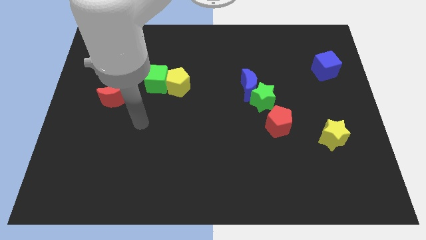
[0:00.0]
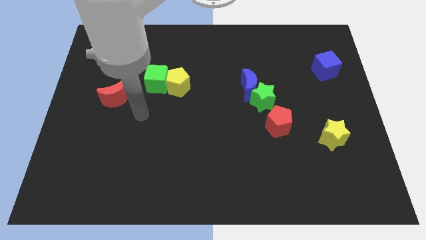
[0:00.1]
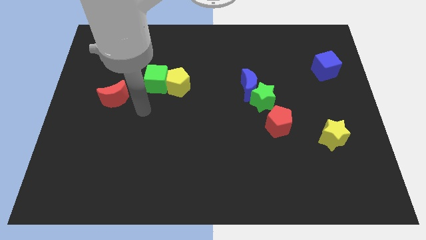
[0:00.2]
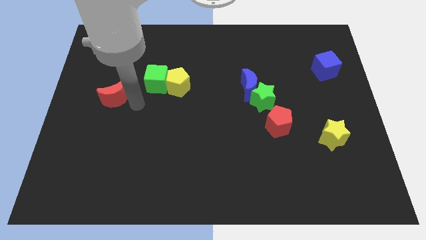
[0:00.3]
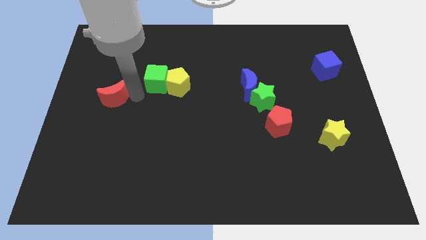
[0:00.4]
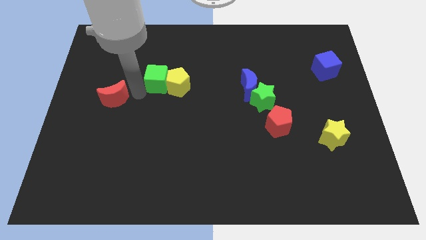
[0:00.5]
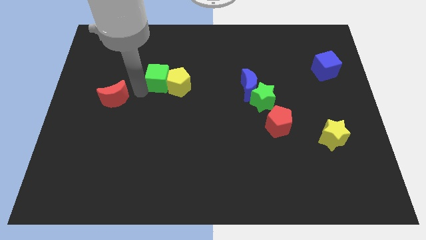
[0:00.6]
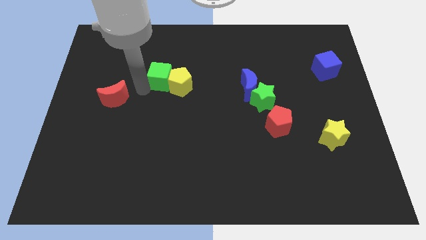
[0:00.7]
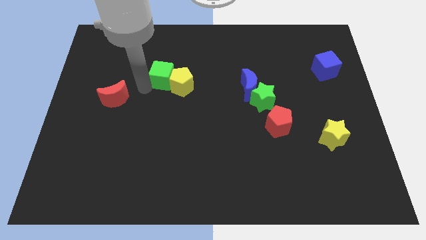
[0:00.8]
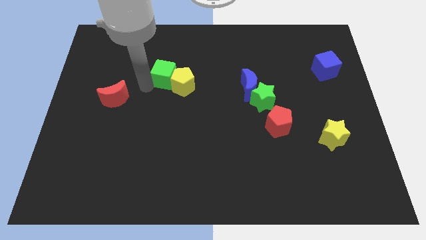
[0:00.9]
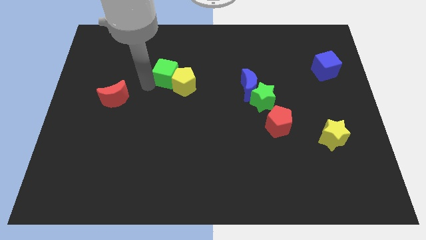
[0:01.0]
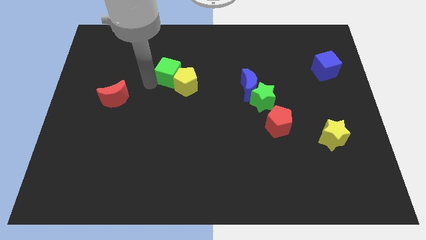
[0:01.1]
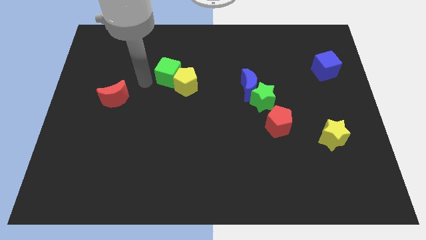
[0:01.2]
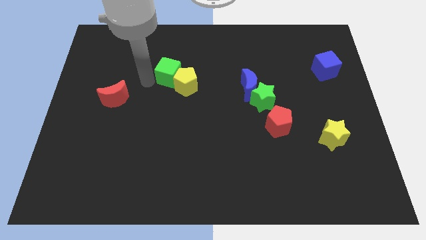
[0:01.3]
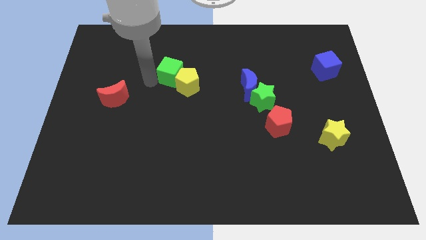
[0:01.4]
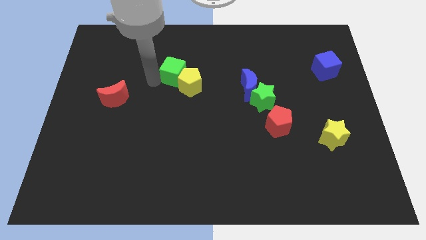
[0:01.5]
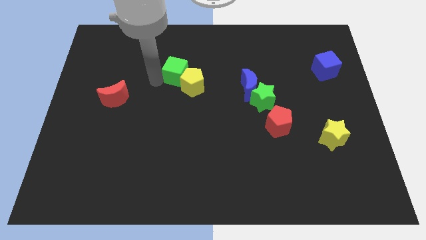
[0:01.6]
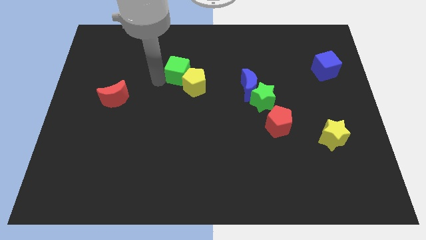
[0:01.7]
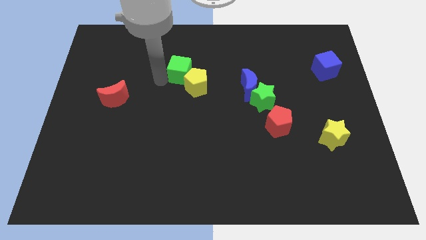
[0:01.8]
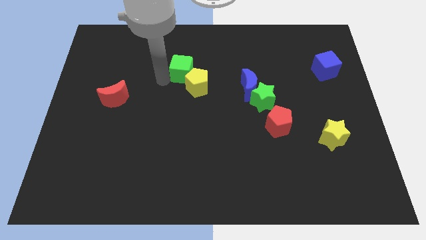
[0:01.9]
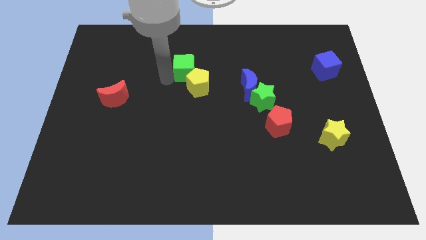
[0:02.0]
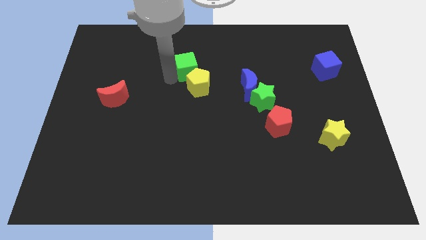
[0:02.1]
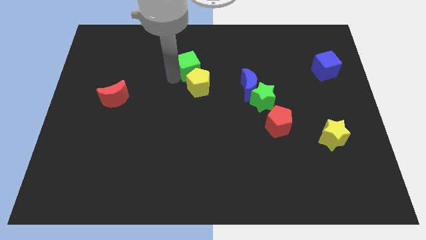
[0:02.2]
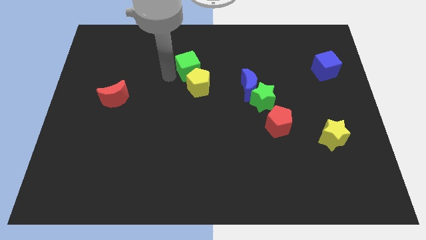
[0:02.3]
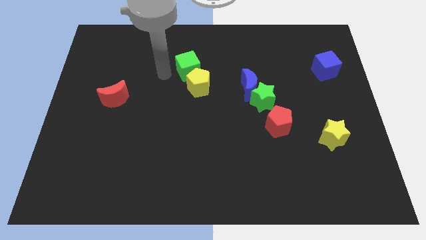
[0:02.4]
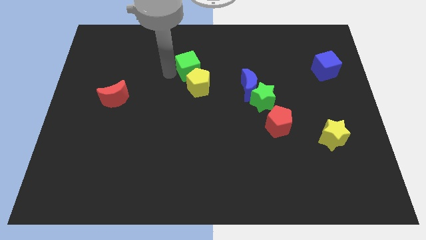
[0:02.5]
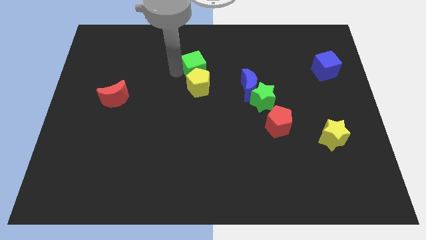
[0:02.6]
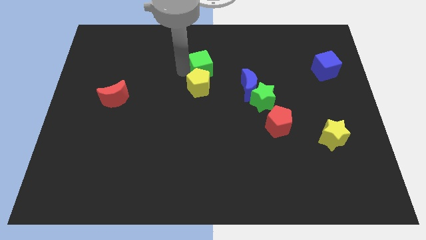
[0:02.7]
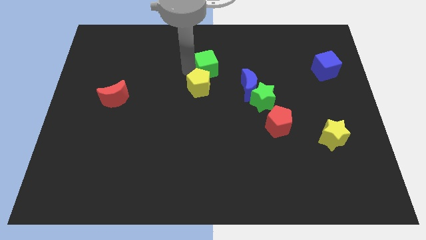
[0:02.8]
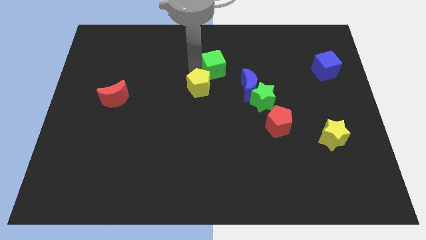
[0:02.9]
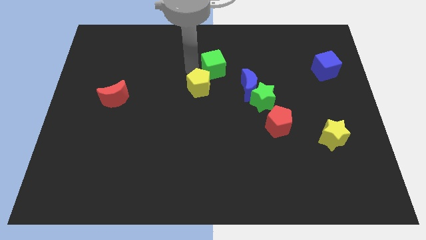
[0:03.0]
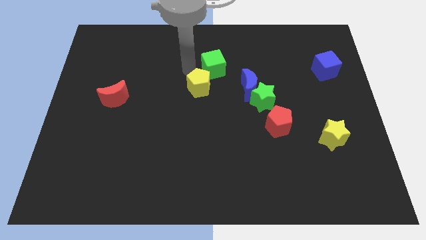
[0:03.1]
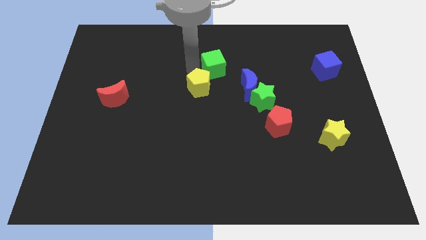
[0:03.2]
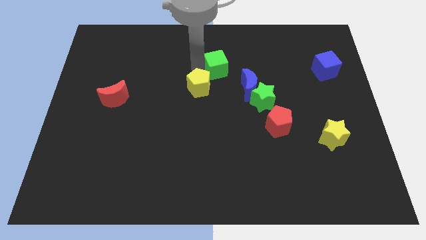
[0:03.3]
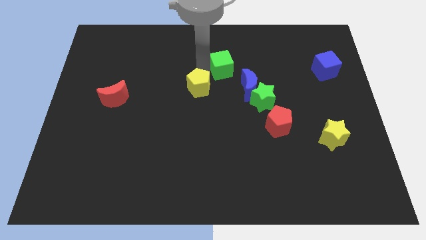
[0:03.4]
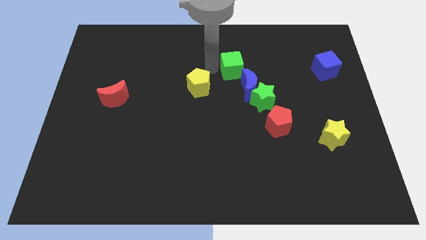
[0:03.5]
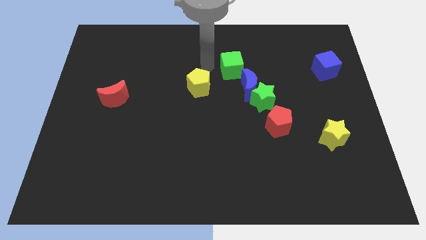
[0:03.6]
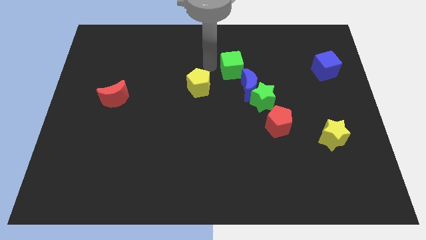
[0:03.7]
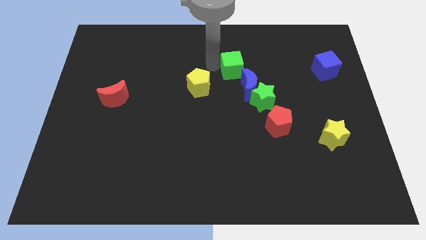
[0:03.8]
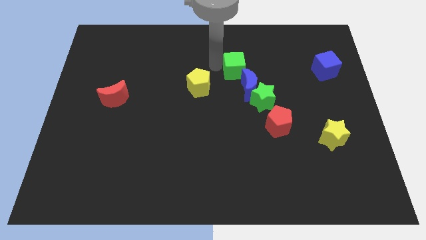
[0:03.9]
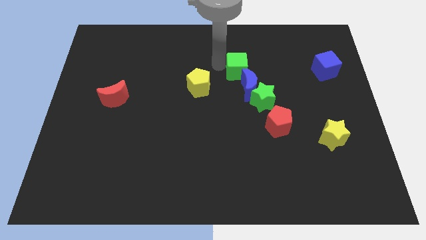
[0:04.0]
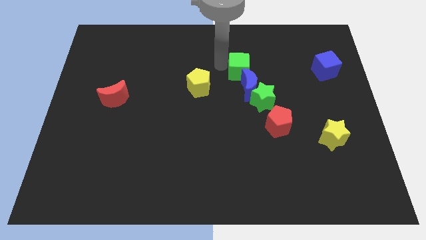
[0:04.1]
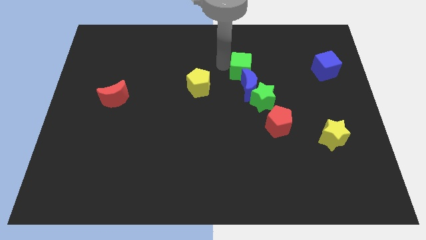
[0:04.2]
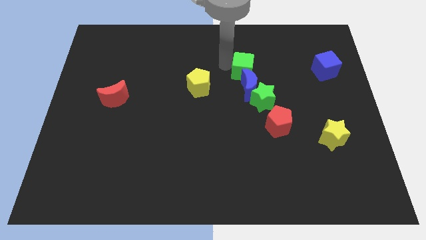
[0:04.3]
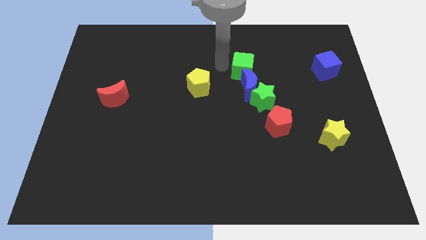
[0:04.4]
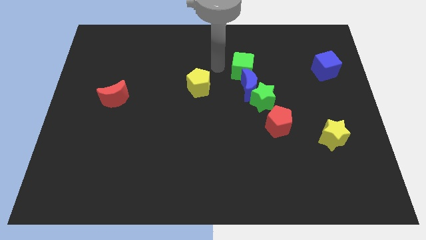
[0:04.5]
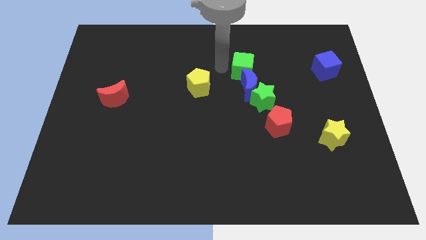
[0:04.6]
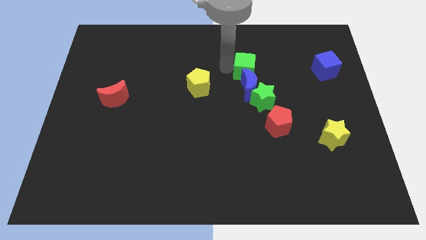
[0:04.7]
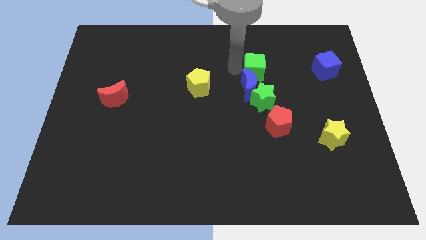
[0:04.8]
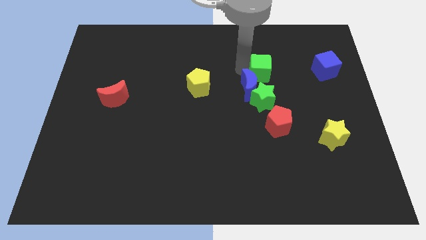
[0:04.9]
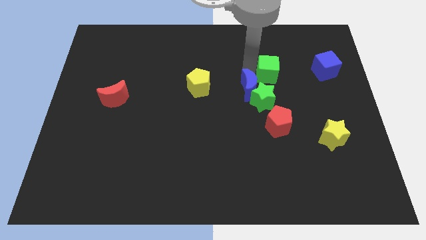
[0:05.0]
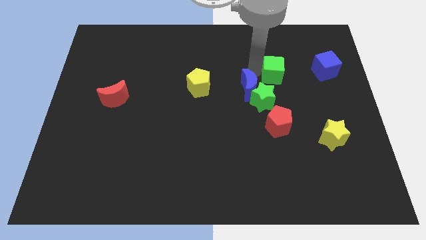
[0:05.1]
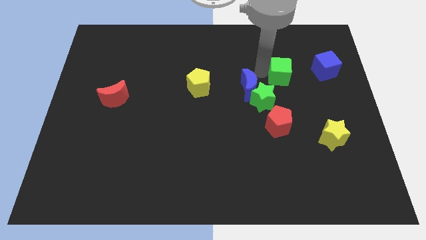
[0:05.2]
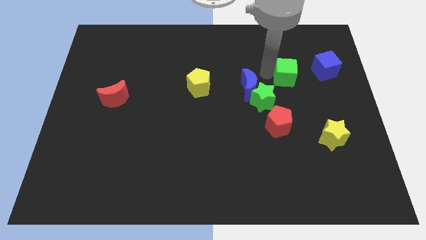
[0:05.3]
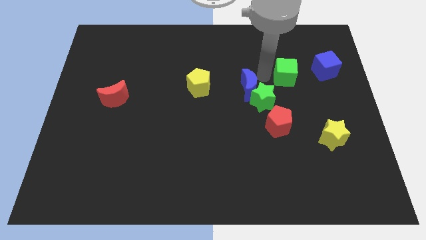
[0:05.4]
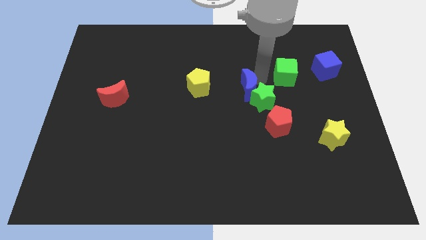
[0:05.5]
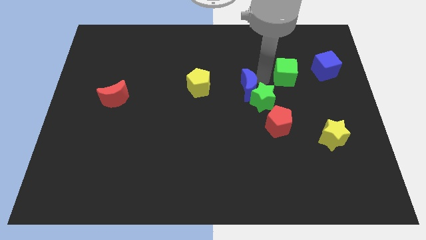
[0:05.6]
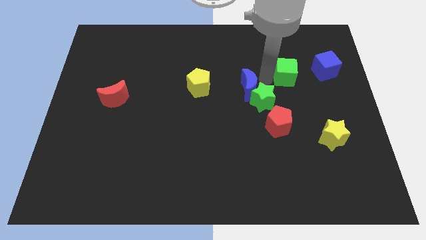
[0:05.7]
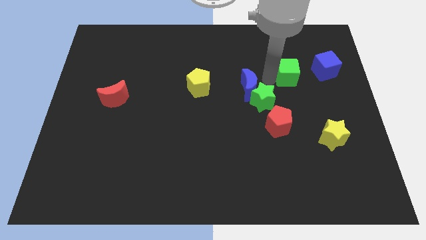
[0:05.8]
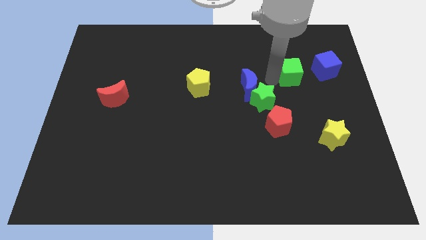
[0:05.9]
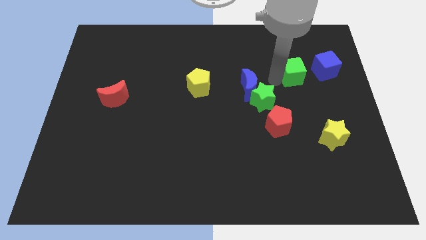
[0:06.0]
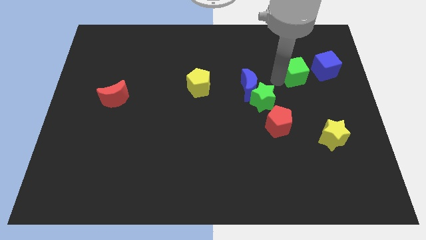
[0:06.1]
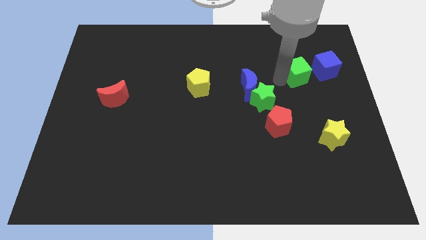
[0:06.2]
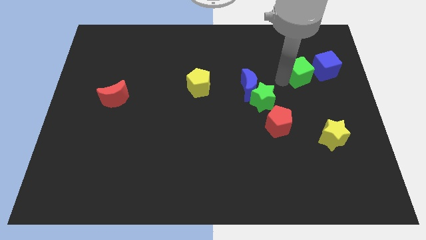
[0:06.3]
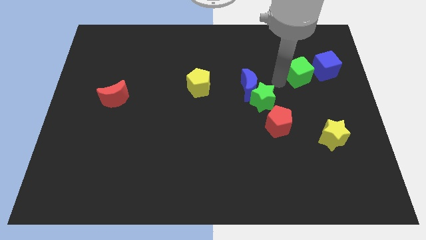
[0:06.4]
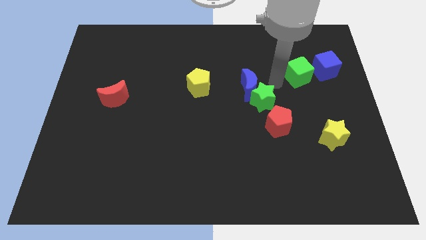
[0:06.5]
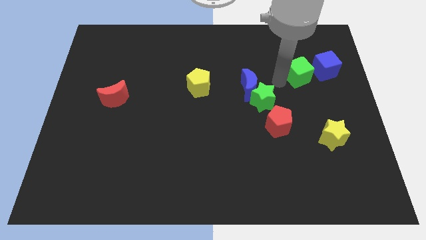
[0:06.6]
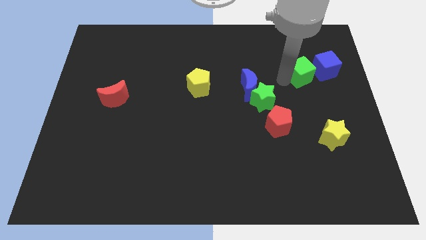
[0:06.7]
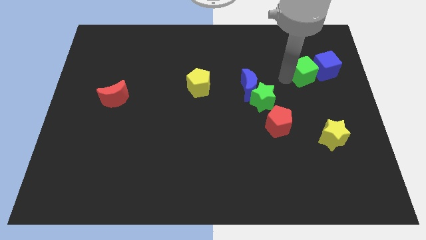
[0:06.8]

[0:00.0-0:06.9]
slide the green cube next to the blue cube

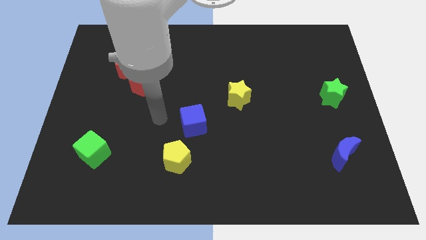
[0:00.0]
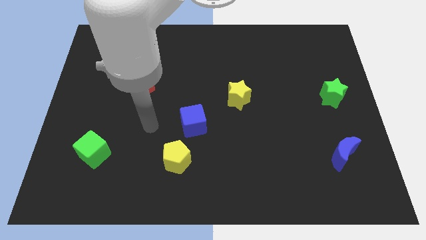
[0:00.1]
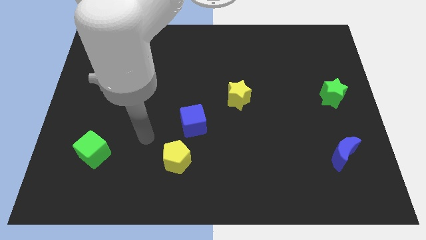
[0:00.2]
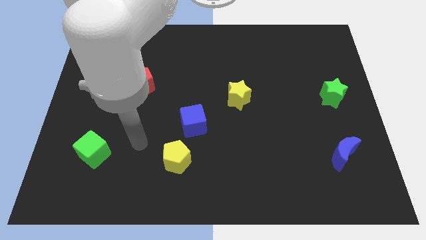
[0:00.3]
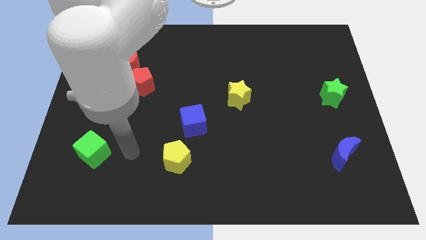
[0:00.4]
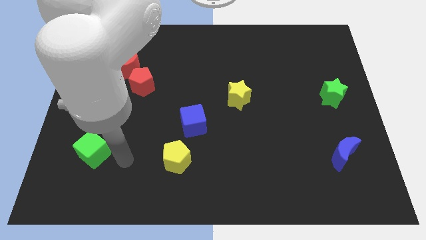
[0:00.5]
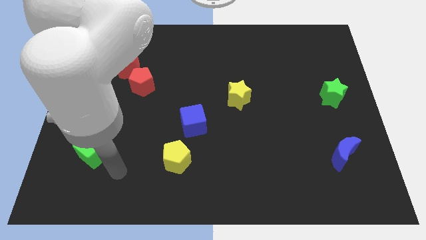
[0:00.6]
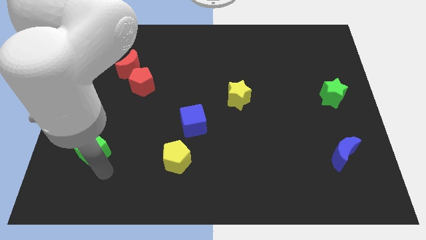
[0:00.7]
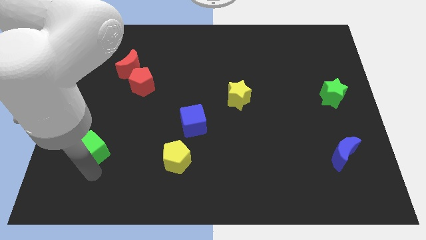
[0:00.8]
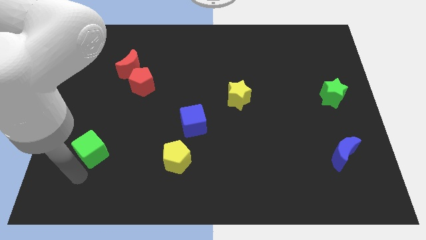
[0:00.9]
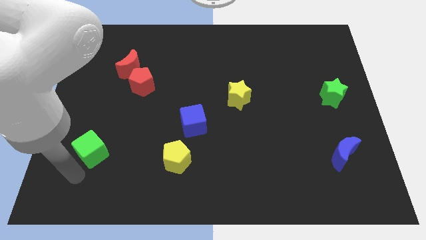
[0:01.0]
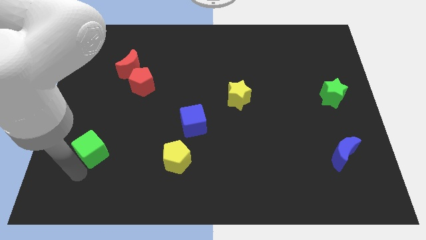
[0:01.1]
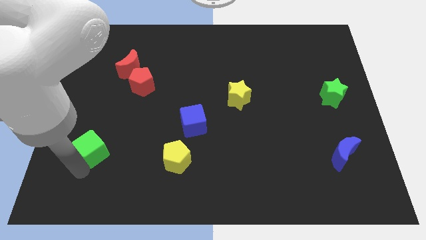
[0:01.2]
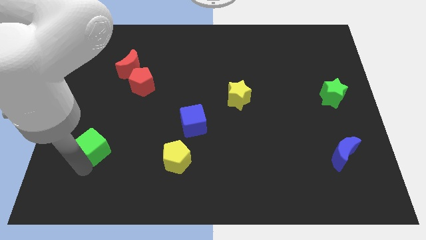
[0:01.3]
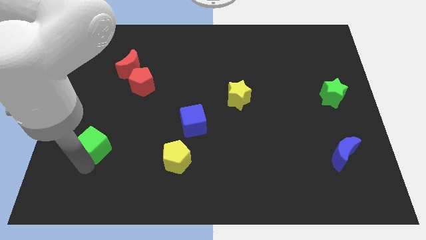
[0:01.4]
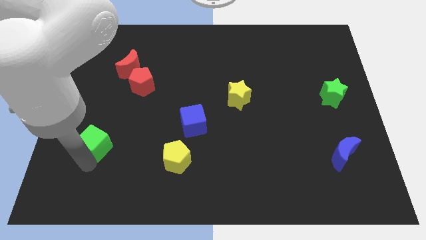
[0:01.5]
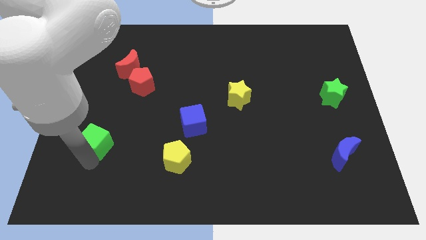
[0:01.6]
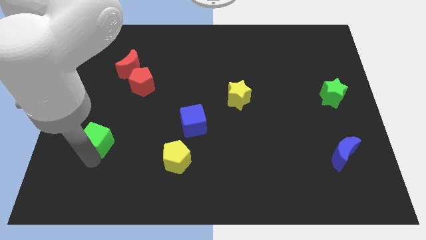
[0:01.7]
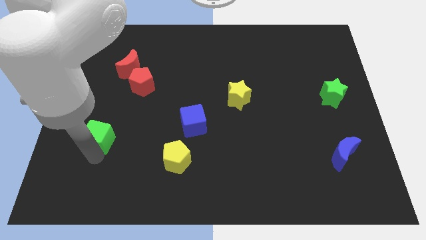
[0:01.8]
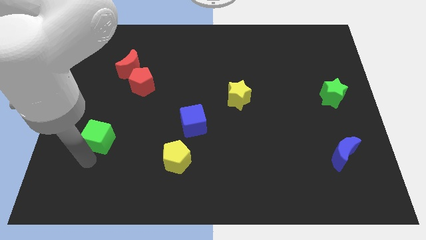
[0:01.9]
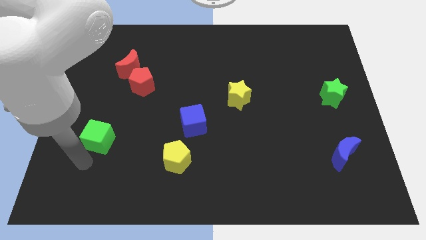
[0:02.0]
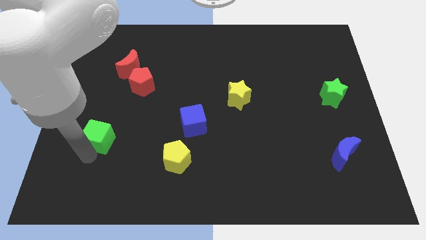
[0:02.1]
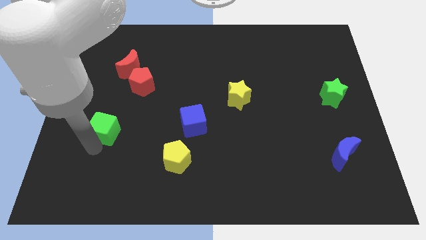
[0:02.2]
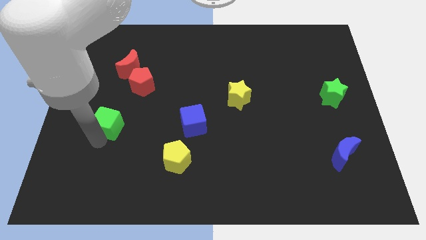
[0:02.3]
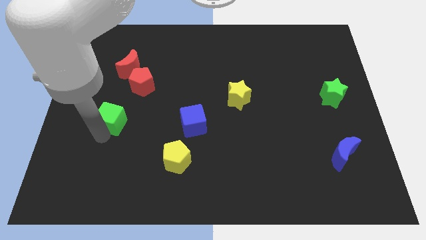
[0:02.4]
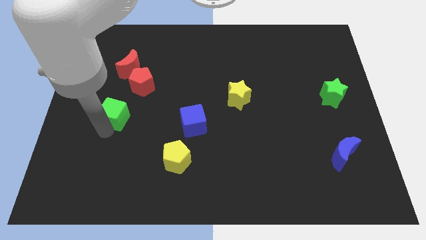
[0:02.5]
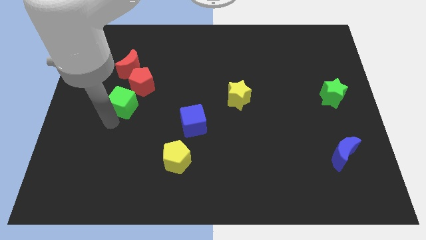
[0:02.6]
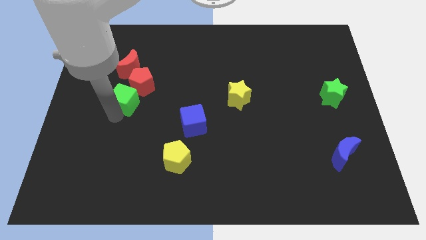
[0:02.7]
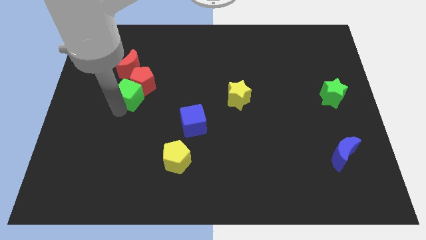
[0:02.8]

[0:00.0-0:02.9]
move the green cube close to the red pentagon
